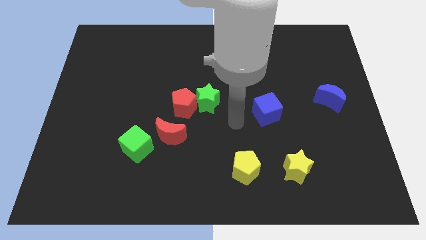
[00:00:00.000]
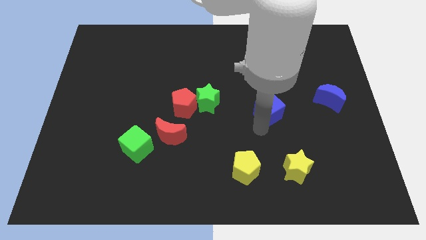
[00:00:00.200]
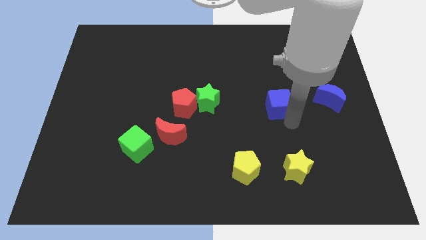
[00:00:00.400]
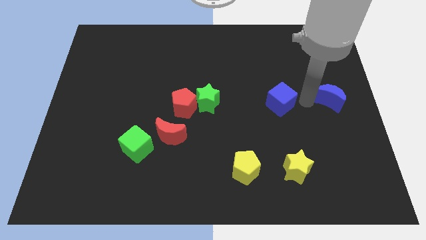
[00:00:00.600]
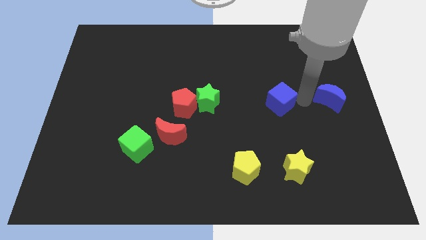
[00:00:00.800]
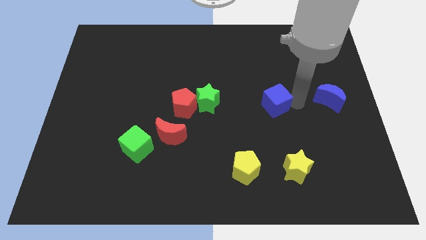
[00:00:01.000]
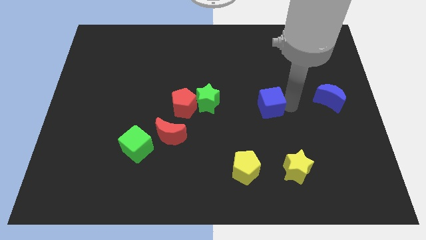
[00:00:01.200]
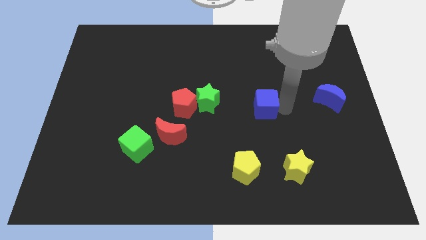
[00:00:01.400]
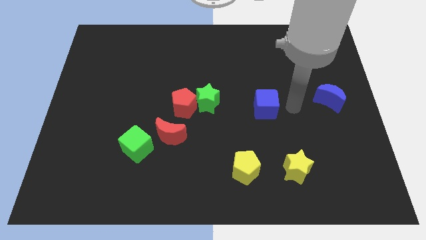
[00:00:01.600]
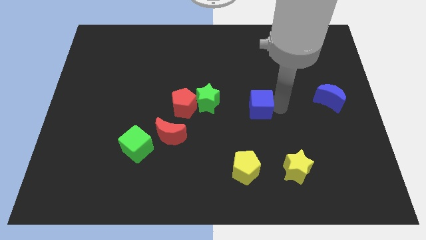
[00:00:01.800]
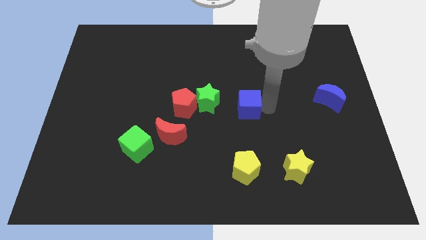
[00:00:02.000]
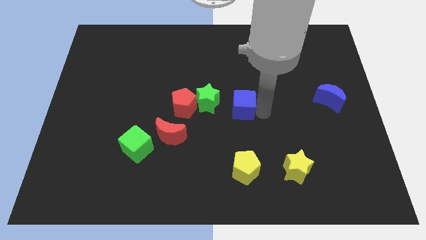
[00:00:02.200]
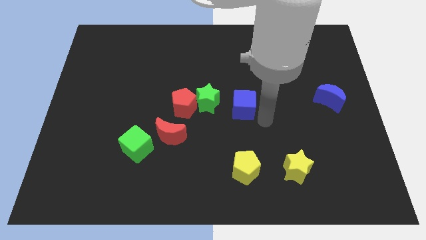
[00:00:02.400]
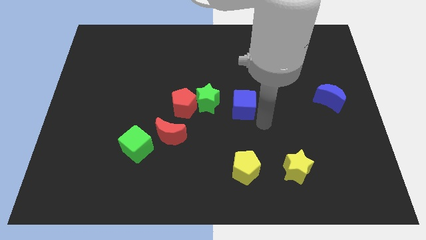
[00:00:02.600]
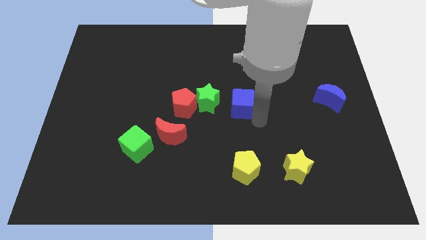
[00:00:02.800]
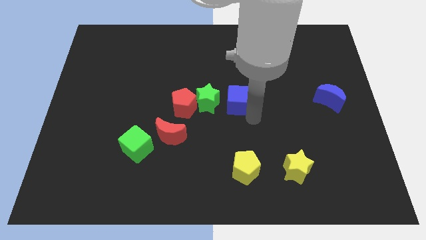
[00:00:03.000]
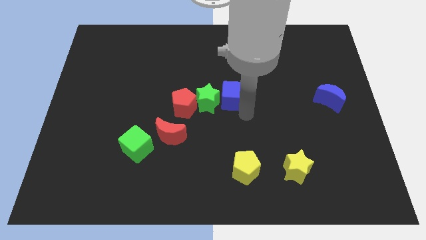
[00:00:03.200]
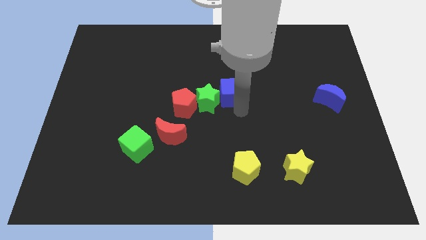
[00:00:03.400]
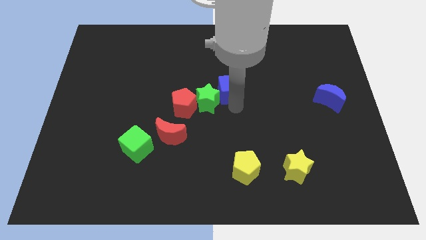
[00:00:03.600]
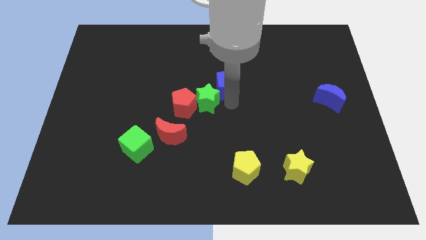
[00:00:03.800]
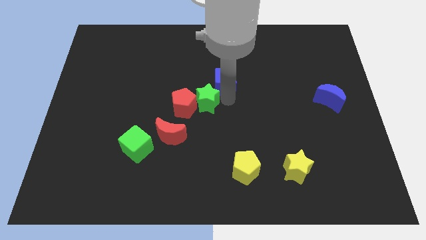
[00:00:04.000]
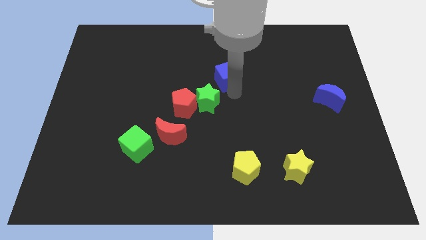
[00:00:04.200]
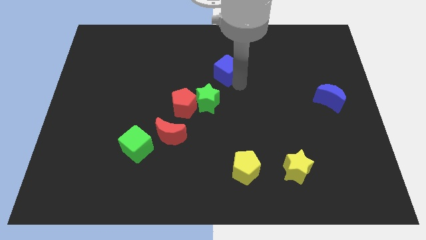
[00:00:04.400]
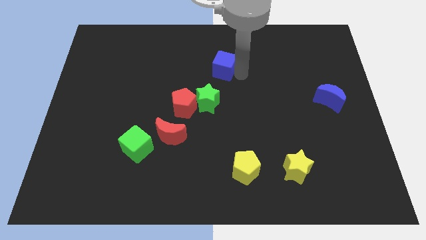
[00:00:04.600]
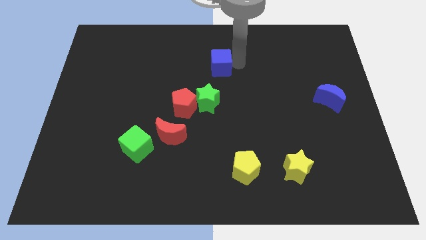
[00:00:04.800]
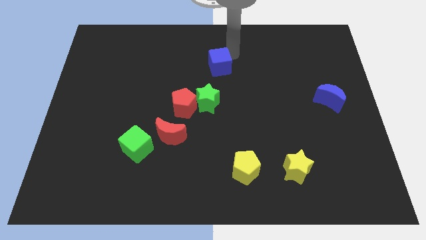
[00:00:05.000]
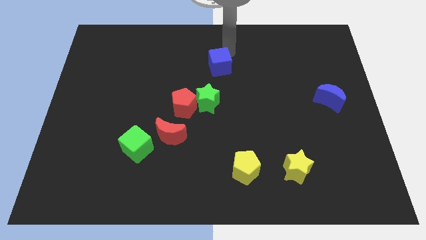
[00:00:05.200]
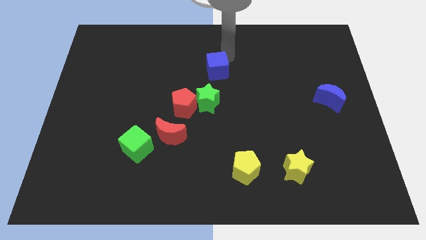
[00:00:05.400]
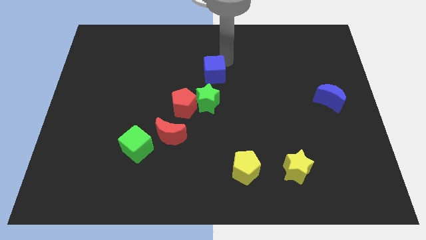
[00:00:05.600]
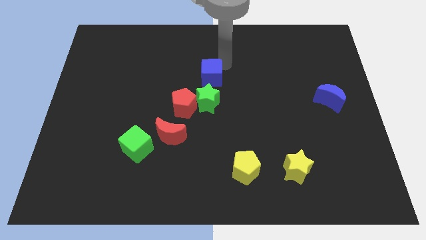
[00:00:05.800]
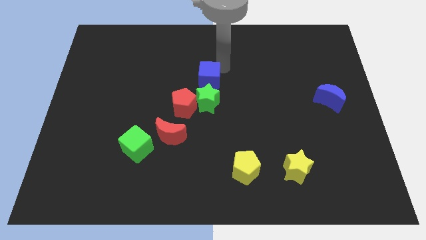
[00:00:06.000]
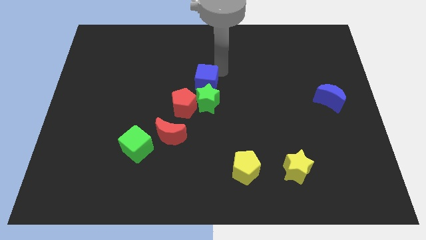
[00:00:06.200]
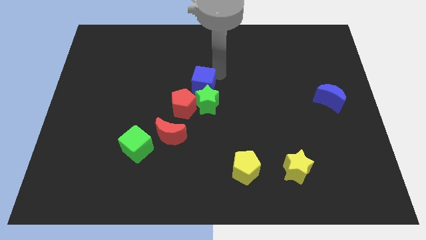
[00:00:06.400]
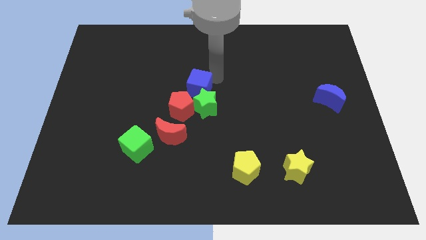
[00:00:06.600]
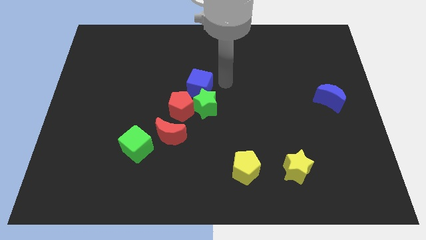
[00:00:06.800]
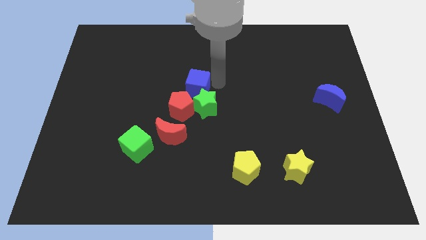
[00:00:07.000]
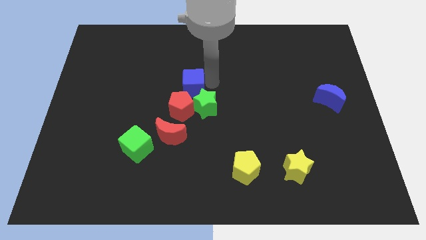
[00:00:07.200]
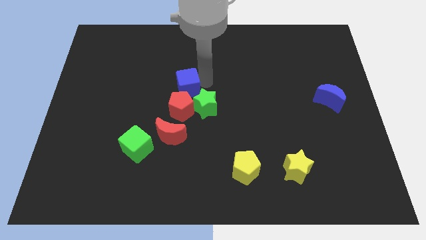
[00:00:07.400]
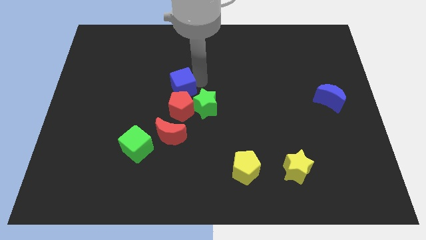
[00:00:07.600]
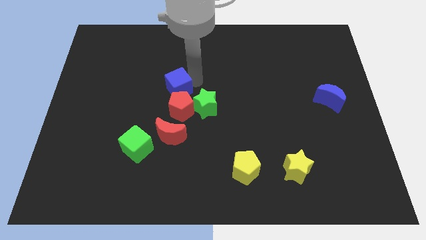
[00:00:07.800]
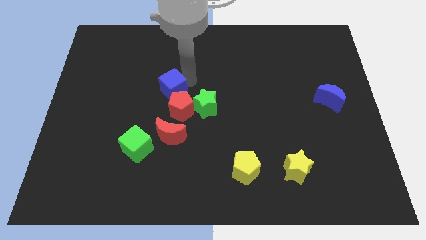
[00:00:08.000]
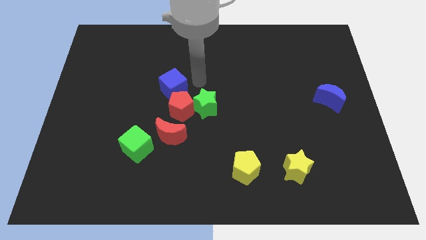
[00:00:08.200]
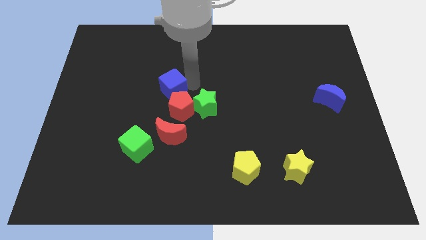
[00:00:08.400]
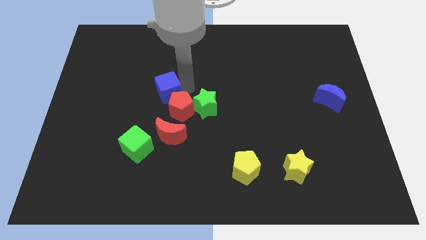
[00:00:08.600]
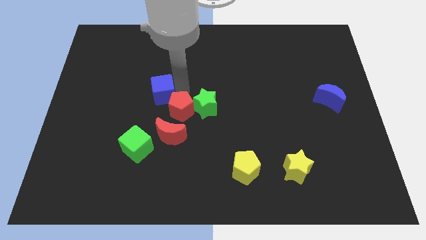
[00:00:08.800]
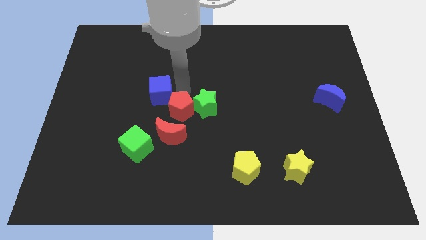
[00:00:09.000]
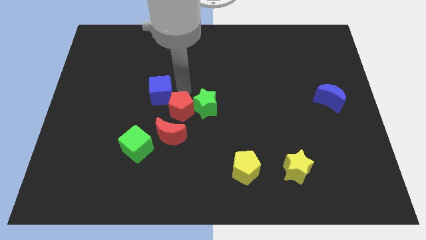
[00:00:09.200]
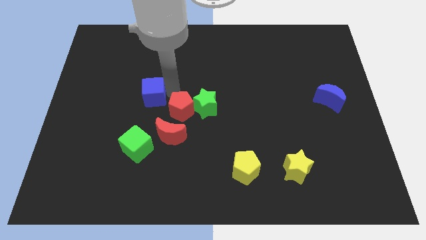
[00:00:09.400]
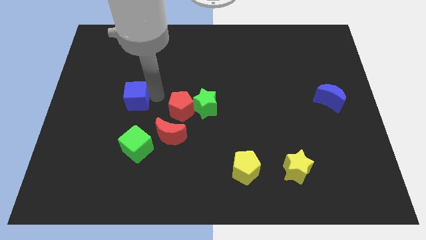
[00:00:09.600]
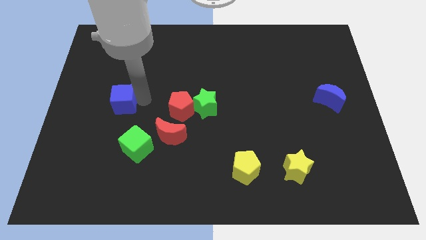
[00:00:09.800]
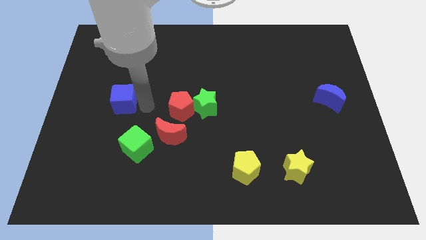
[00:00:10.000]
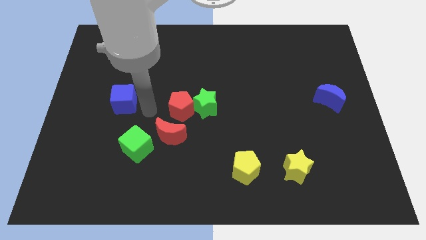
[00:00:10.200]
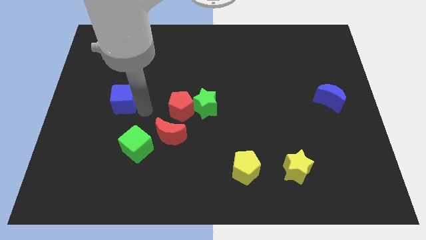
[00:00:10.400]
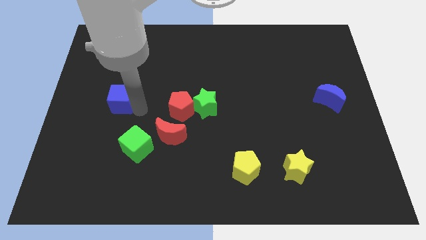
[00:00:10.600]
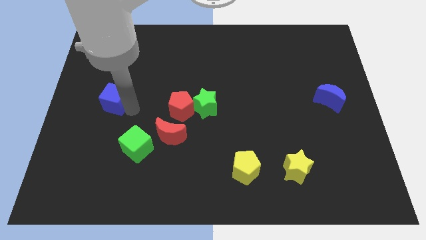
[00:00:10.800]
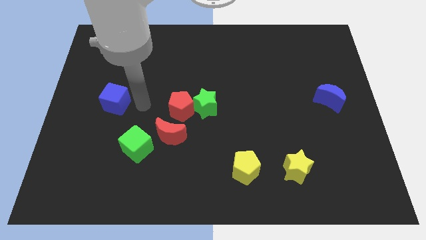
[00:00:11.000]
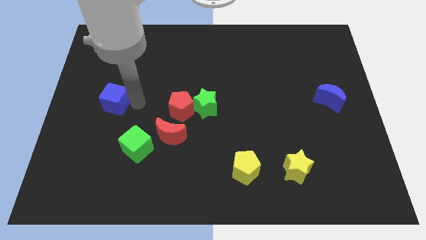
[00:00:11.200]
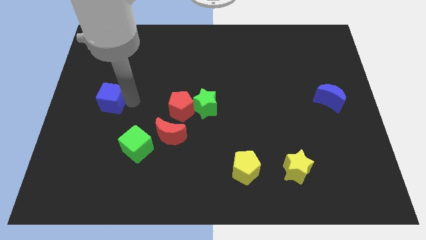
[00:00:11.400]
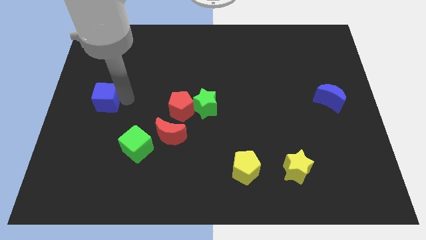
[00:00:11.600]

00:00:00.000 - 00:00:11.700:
move the blue cube to the left side

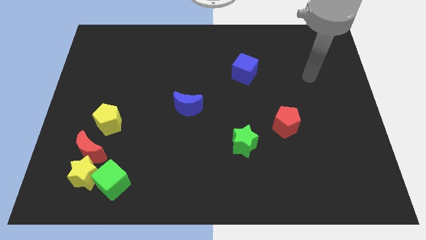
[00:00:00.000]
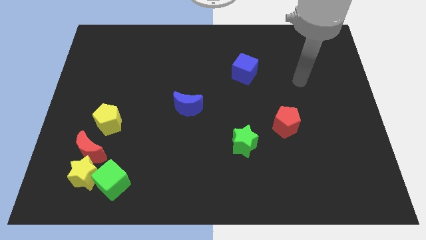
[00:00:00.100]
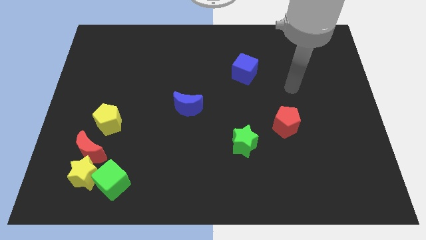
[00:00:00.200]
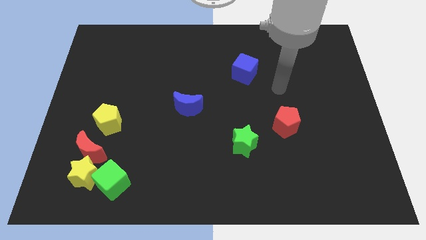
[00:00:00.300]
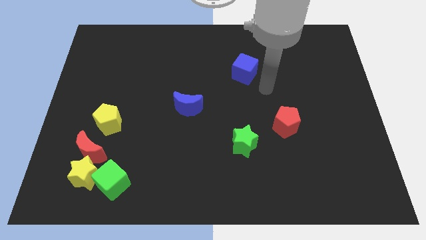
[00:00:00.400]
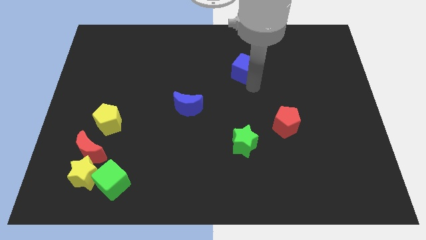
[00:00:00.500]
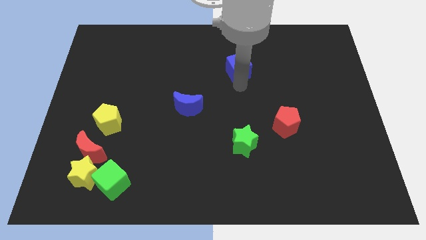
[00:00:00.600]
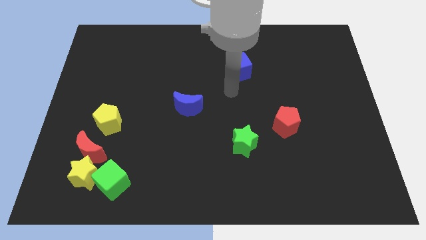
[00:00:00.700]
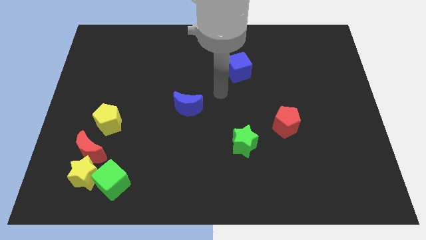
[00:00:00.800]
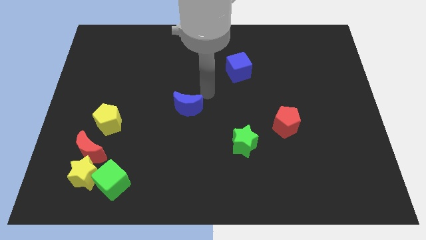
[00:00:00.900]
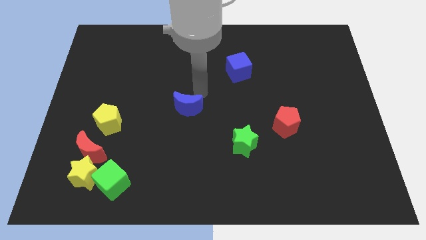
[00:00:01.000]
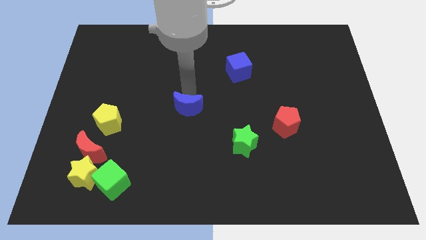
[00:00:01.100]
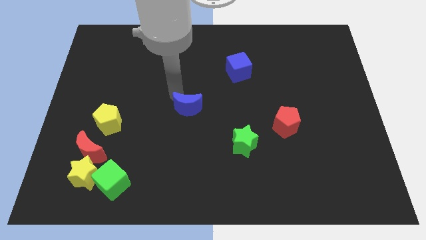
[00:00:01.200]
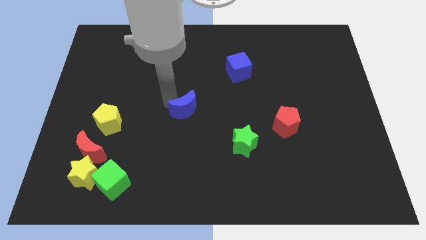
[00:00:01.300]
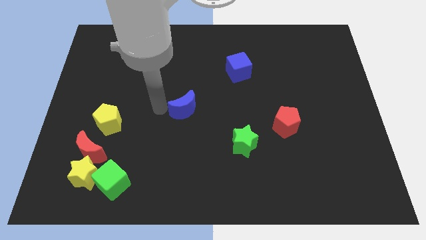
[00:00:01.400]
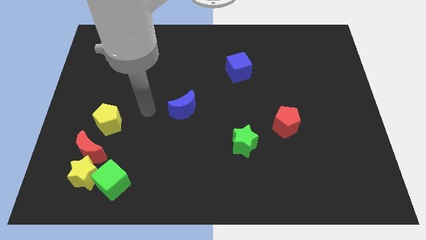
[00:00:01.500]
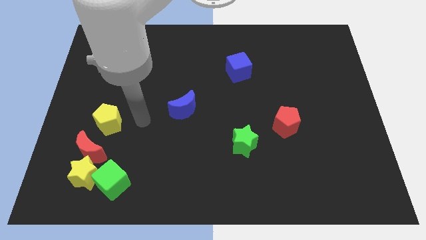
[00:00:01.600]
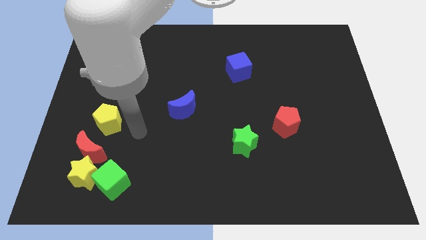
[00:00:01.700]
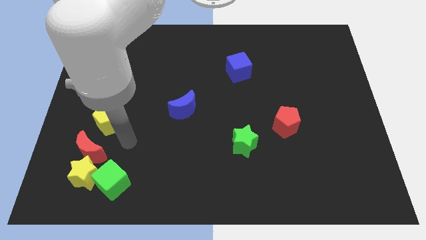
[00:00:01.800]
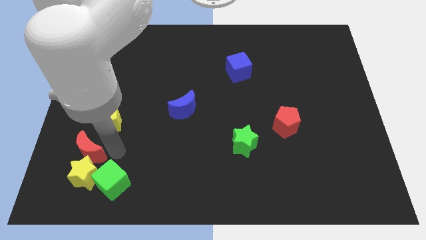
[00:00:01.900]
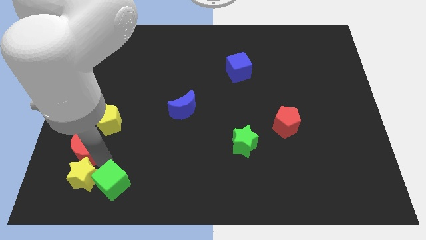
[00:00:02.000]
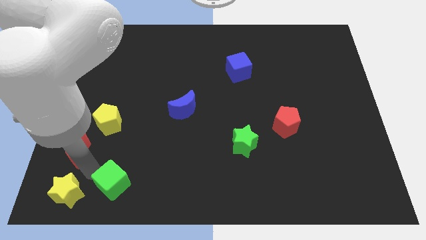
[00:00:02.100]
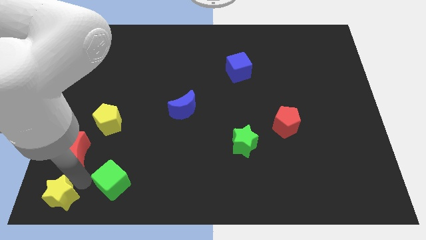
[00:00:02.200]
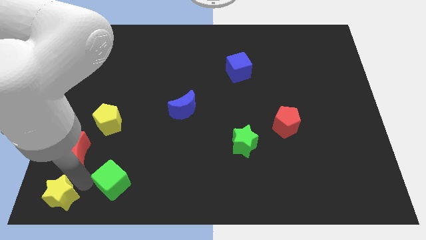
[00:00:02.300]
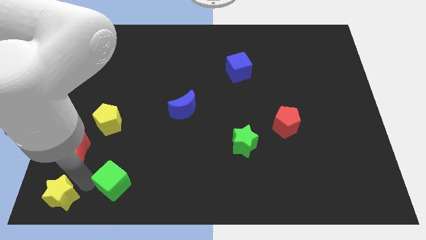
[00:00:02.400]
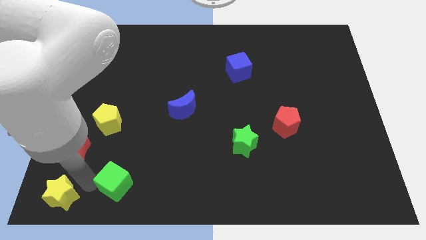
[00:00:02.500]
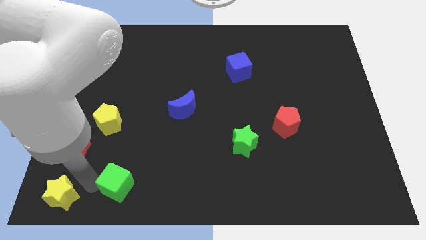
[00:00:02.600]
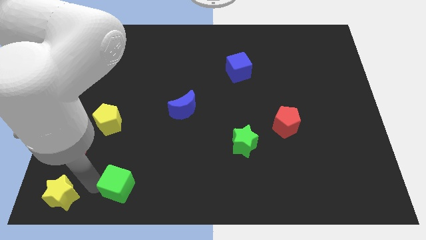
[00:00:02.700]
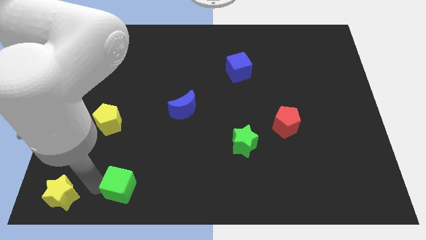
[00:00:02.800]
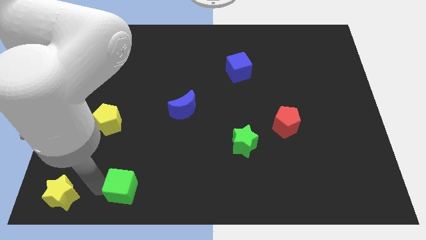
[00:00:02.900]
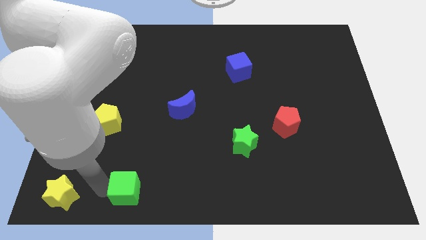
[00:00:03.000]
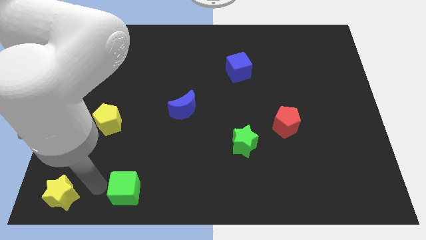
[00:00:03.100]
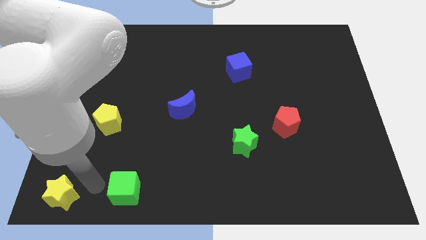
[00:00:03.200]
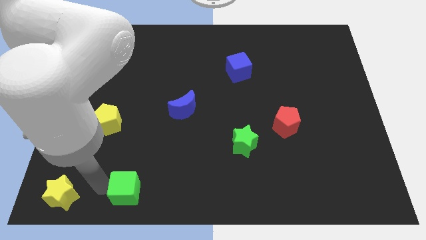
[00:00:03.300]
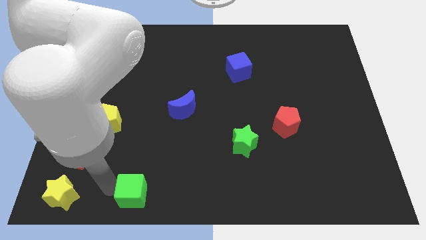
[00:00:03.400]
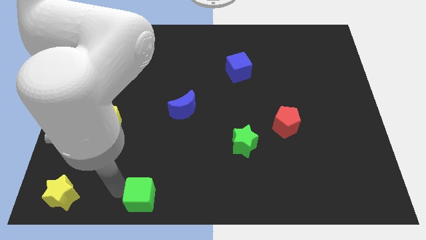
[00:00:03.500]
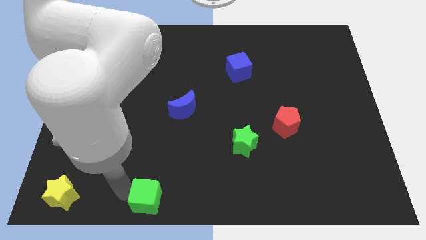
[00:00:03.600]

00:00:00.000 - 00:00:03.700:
push the green cube to the bottom side
